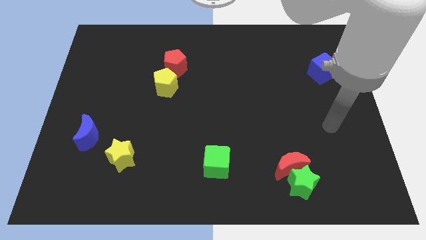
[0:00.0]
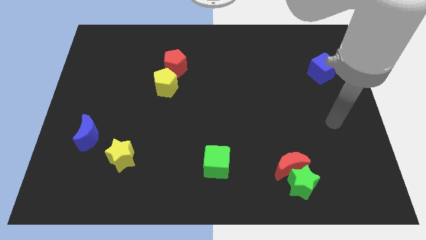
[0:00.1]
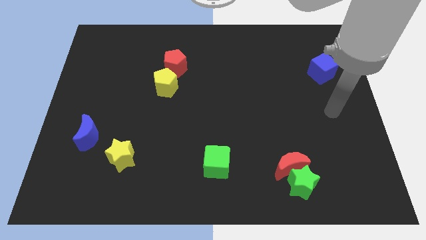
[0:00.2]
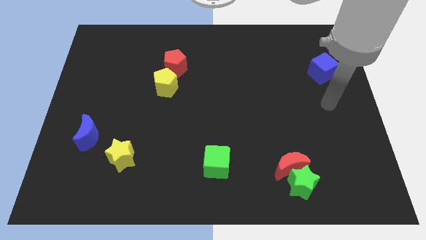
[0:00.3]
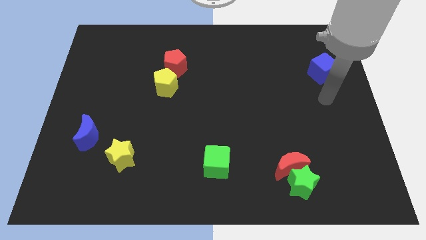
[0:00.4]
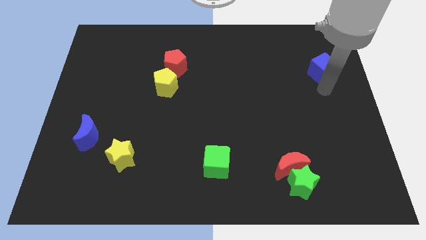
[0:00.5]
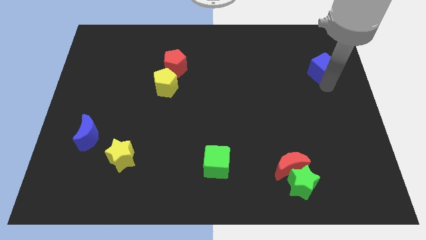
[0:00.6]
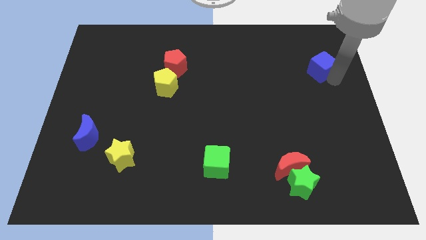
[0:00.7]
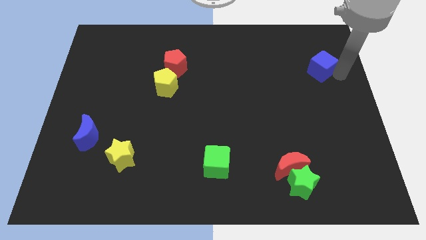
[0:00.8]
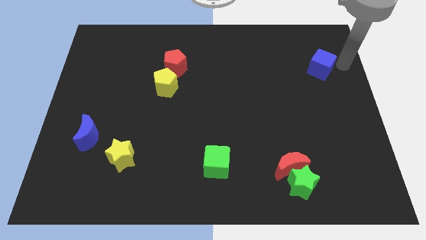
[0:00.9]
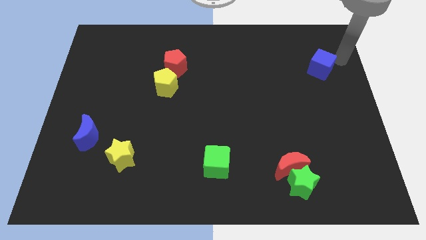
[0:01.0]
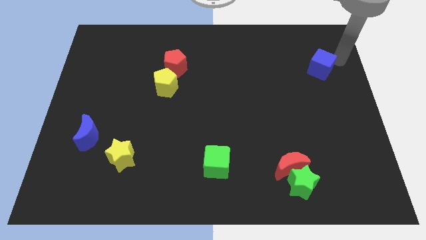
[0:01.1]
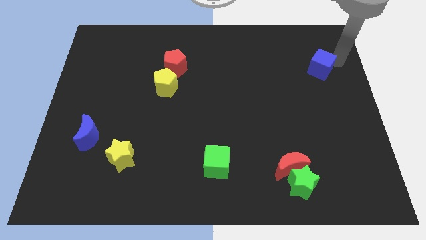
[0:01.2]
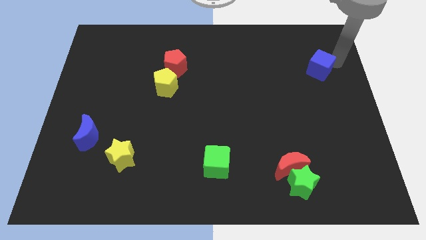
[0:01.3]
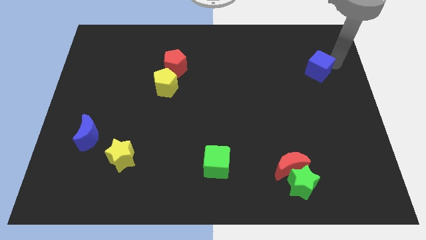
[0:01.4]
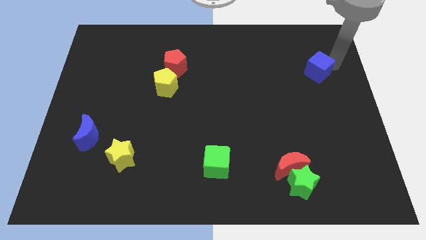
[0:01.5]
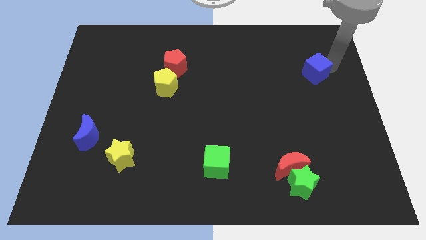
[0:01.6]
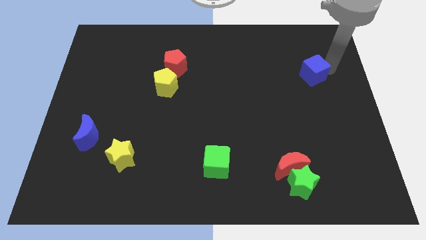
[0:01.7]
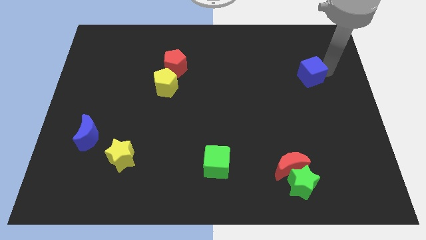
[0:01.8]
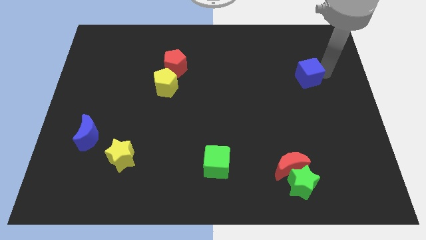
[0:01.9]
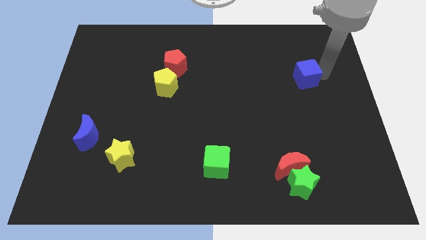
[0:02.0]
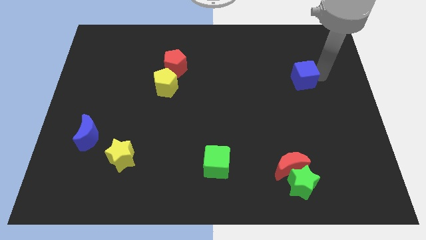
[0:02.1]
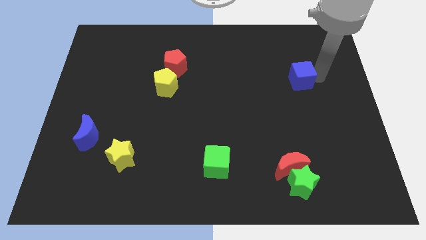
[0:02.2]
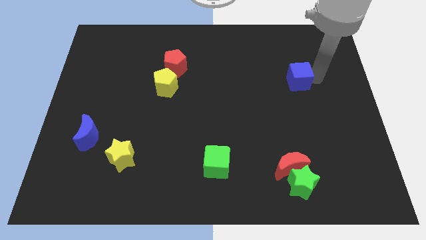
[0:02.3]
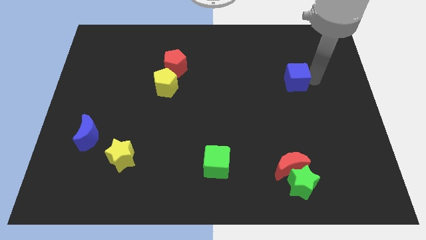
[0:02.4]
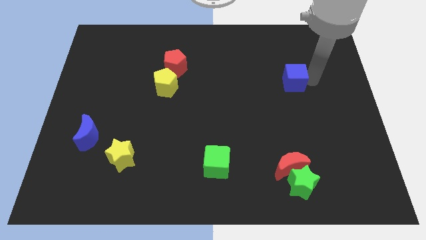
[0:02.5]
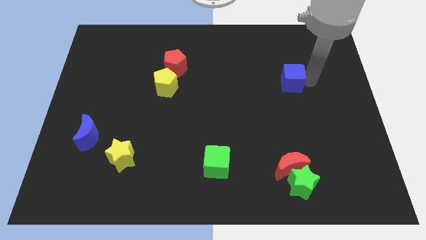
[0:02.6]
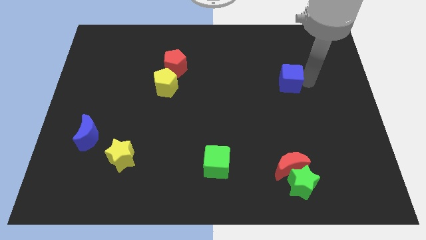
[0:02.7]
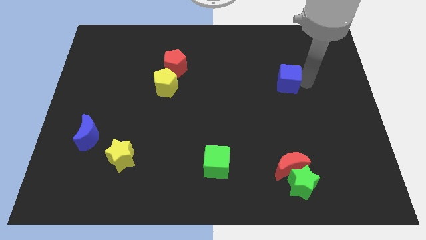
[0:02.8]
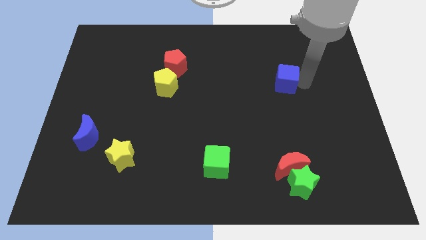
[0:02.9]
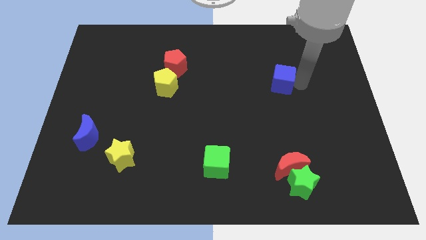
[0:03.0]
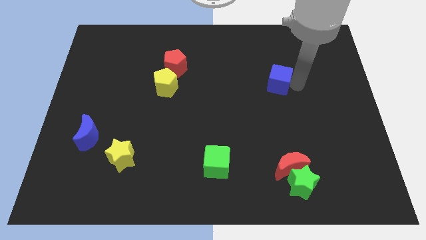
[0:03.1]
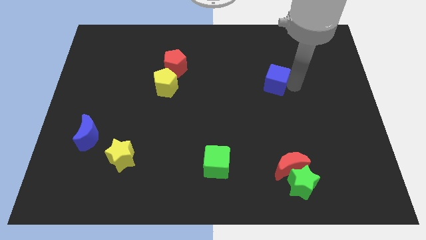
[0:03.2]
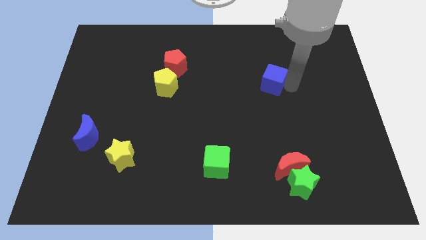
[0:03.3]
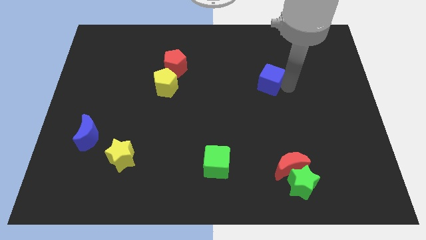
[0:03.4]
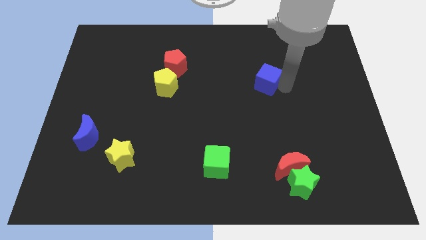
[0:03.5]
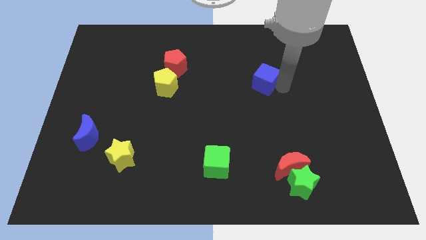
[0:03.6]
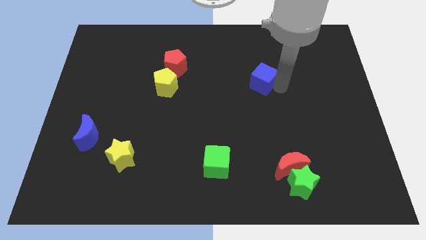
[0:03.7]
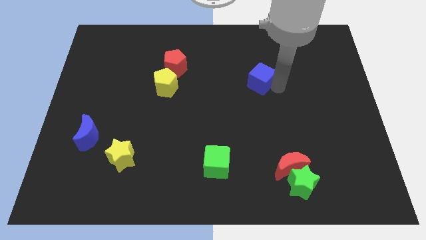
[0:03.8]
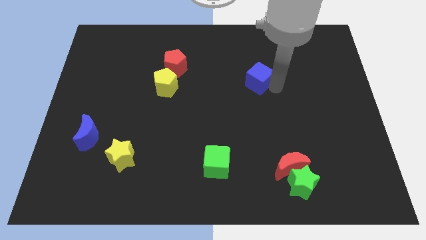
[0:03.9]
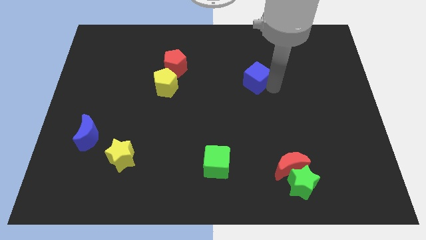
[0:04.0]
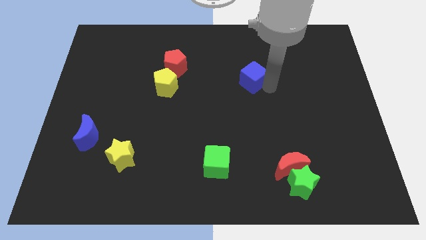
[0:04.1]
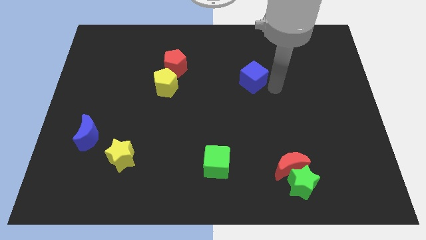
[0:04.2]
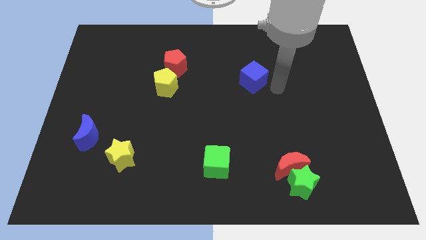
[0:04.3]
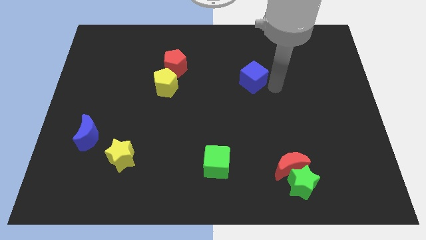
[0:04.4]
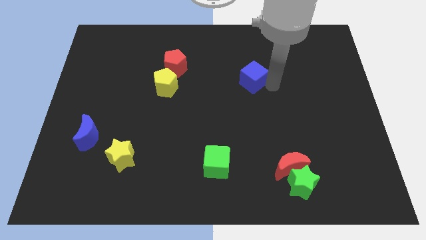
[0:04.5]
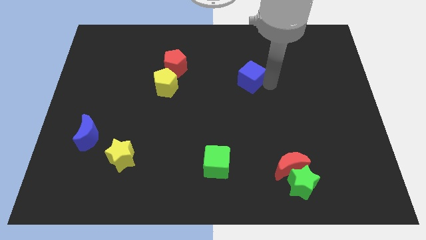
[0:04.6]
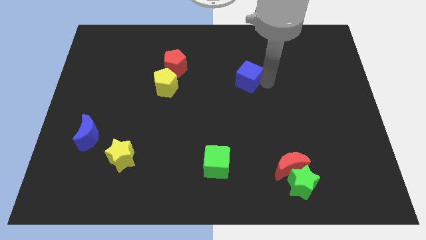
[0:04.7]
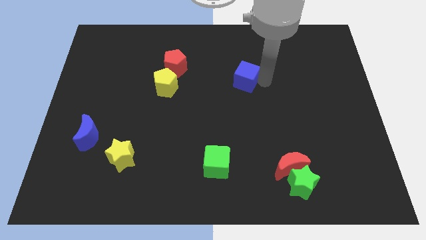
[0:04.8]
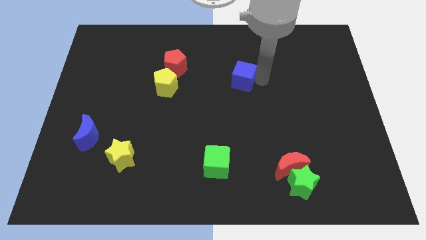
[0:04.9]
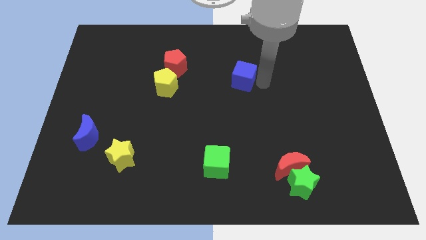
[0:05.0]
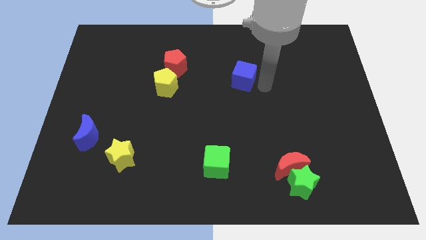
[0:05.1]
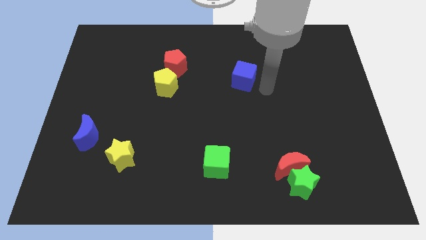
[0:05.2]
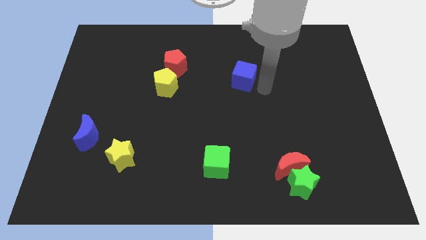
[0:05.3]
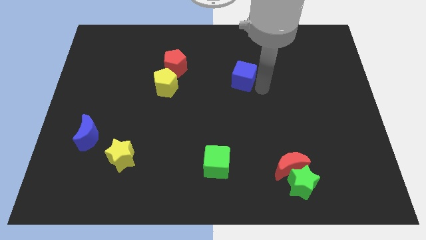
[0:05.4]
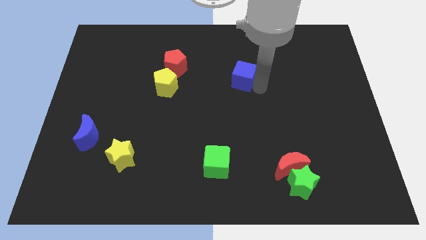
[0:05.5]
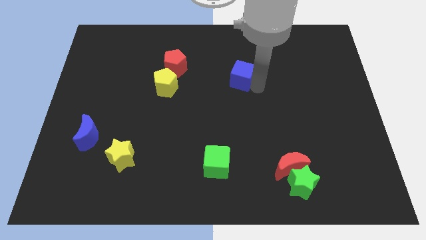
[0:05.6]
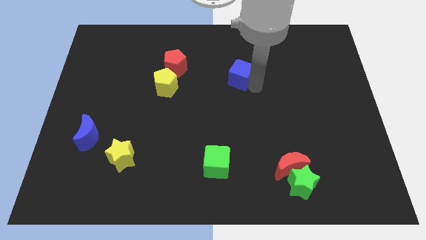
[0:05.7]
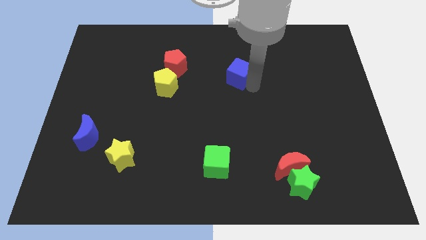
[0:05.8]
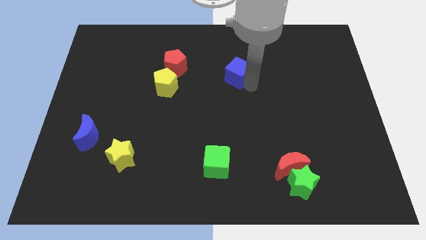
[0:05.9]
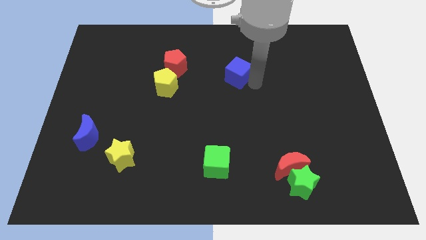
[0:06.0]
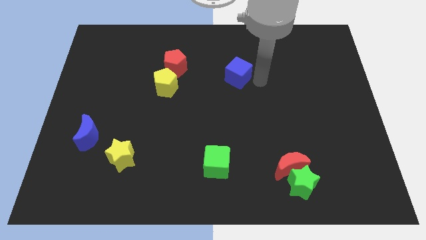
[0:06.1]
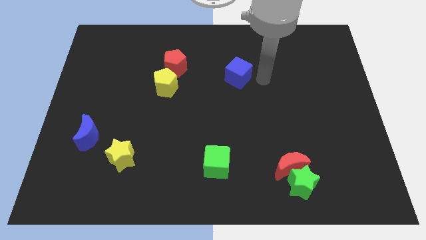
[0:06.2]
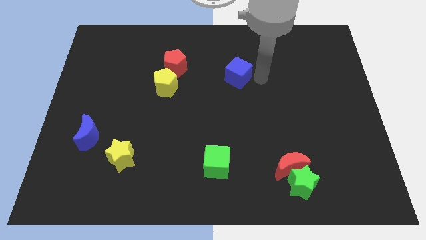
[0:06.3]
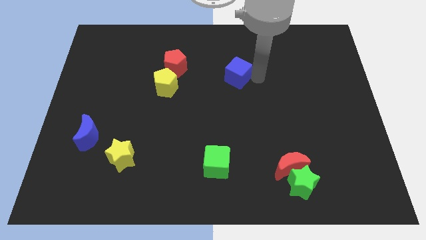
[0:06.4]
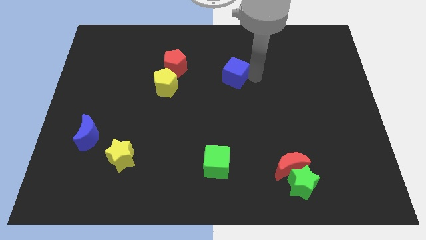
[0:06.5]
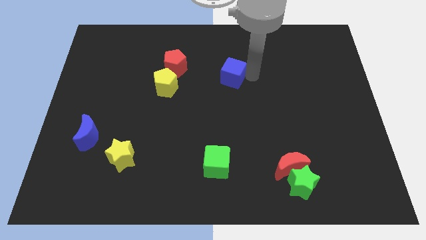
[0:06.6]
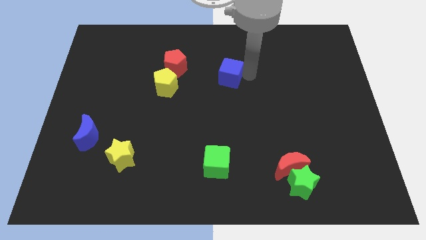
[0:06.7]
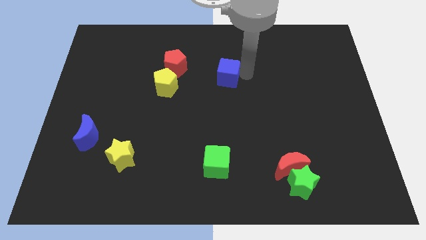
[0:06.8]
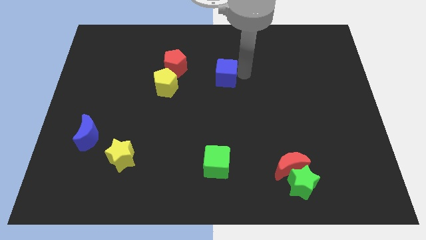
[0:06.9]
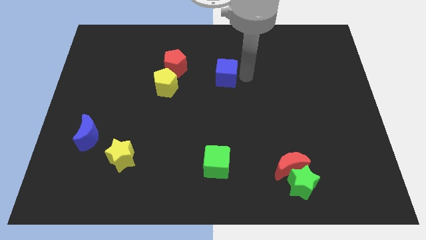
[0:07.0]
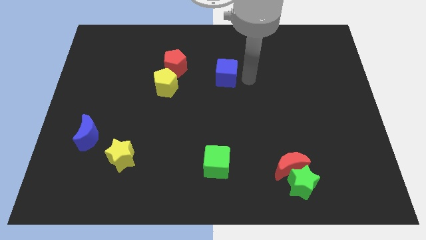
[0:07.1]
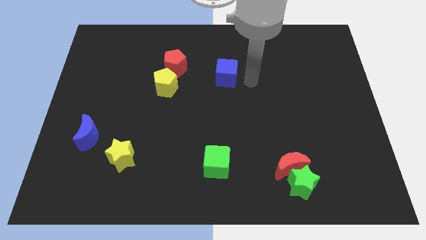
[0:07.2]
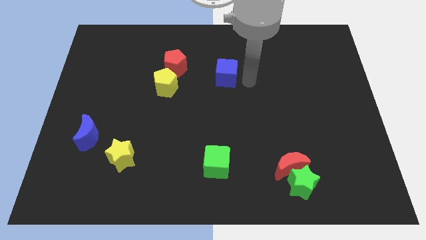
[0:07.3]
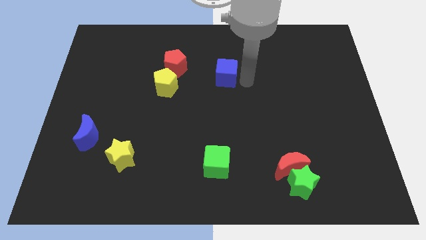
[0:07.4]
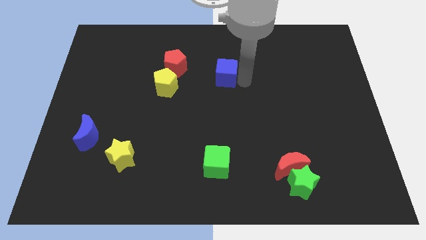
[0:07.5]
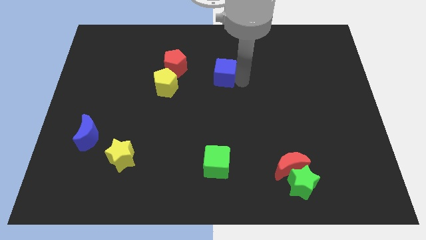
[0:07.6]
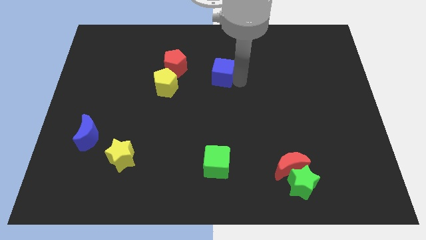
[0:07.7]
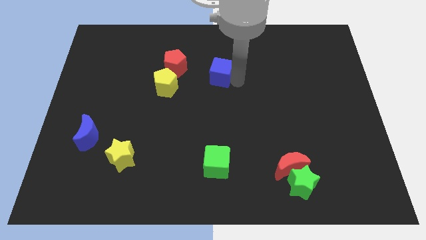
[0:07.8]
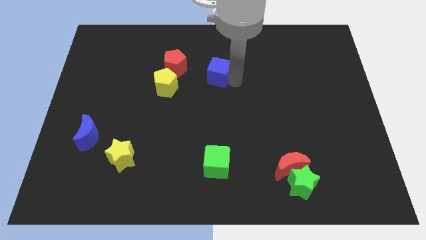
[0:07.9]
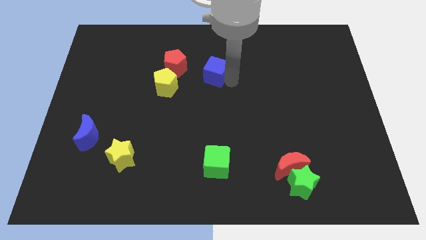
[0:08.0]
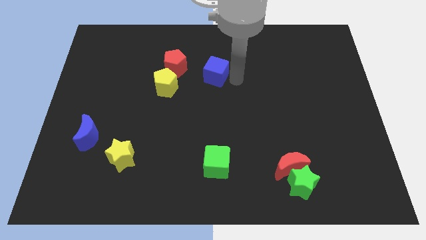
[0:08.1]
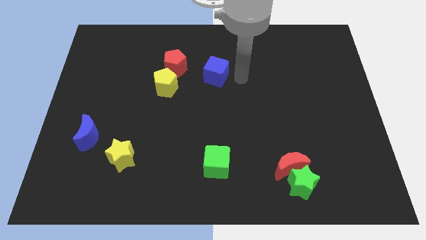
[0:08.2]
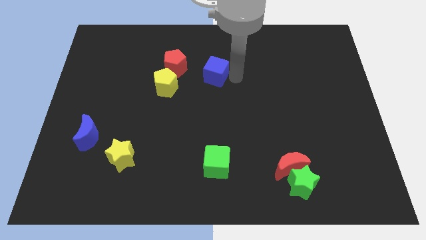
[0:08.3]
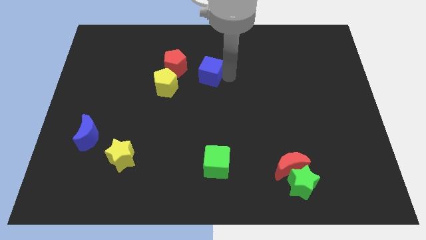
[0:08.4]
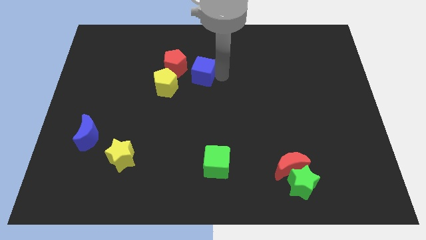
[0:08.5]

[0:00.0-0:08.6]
move the blue cube diagonally up and to the right of the yellow pentagon
